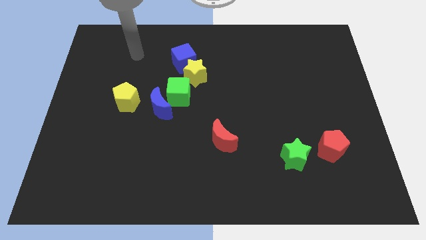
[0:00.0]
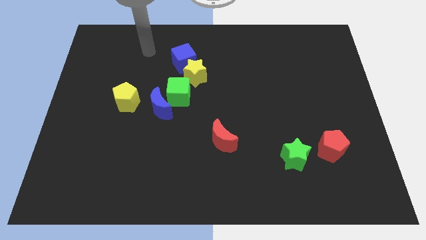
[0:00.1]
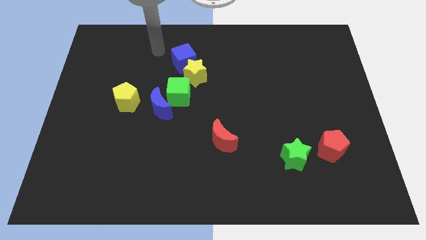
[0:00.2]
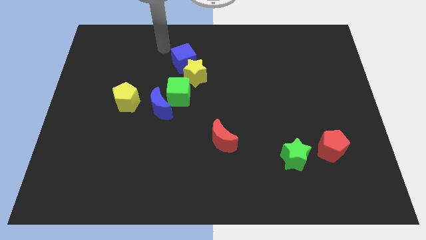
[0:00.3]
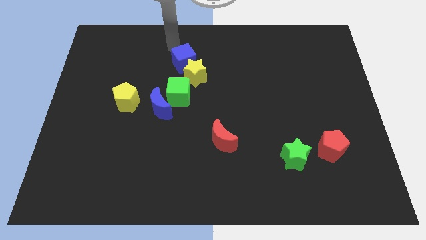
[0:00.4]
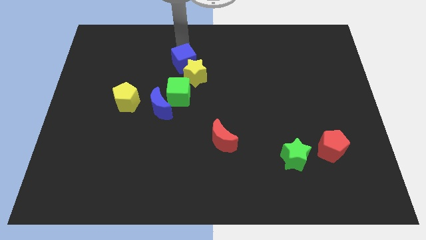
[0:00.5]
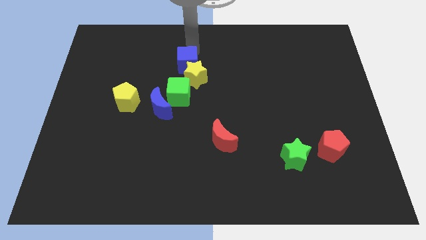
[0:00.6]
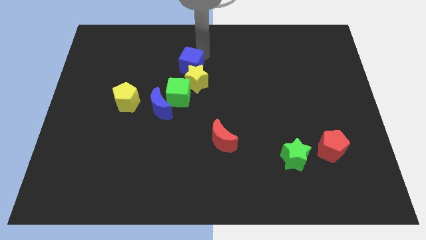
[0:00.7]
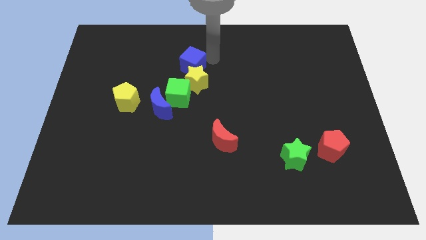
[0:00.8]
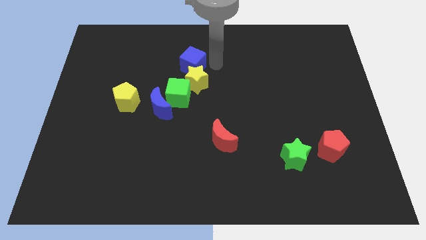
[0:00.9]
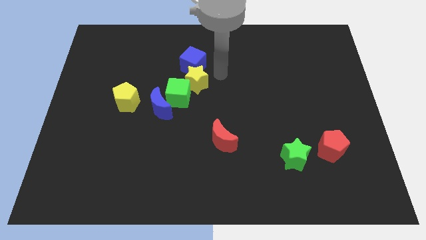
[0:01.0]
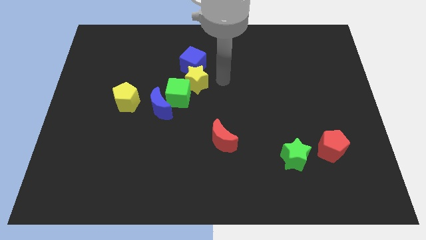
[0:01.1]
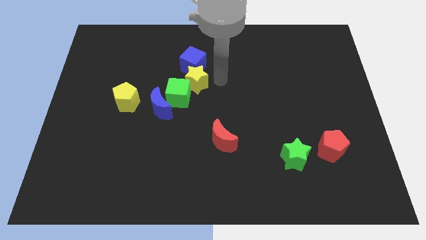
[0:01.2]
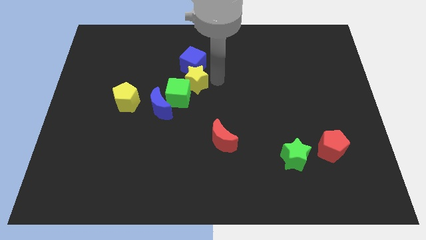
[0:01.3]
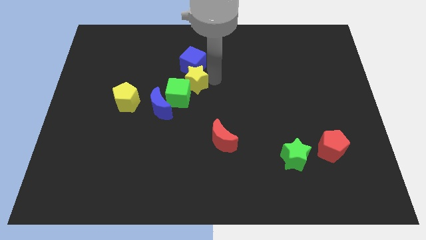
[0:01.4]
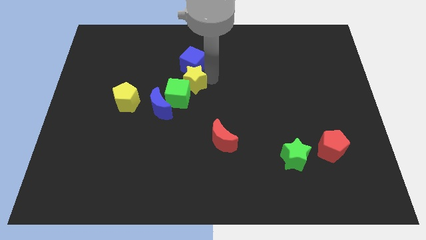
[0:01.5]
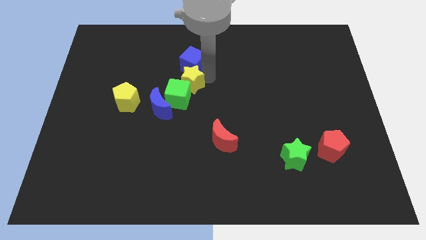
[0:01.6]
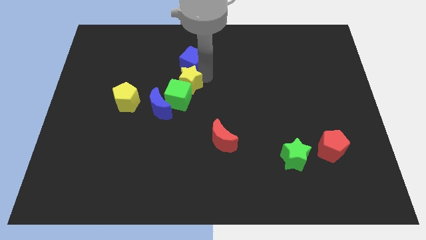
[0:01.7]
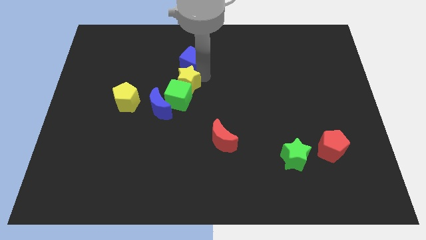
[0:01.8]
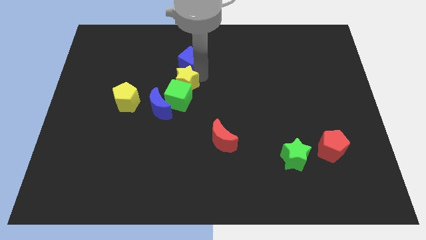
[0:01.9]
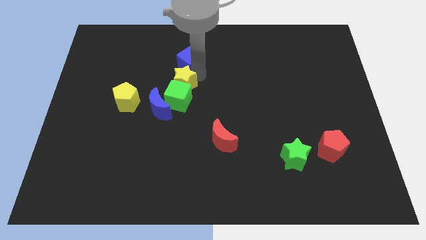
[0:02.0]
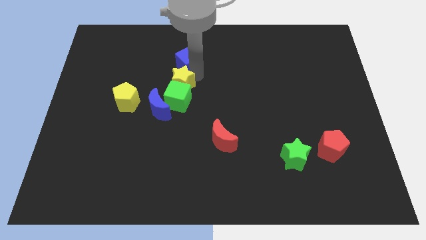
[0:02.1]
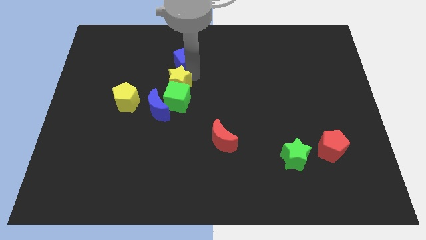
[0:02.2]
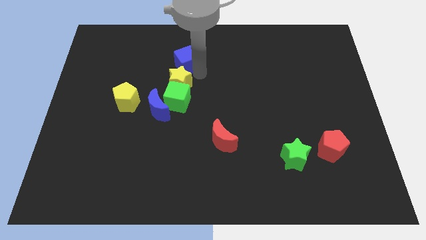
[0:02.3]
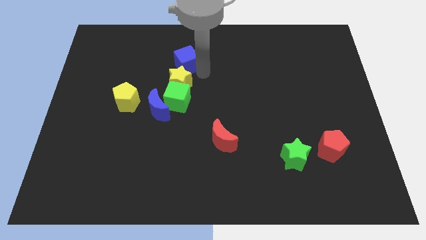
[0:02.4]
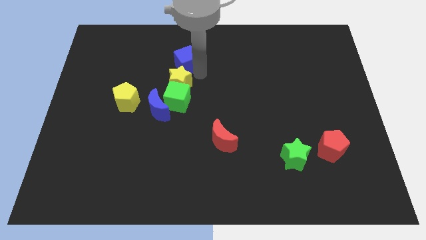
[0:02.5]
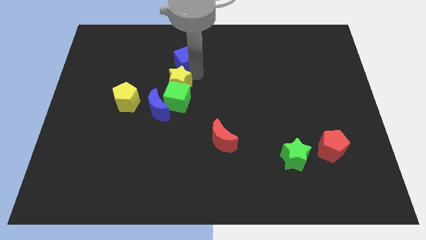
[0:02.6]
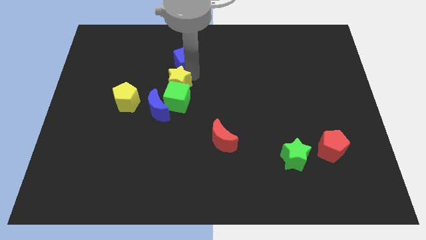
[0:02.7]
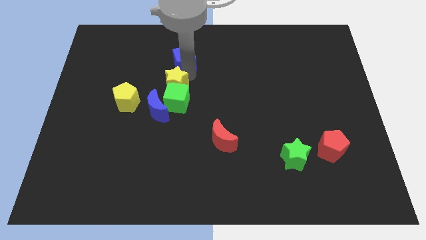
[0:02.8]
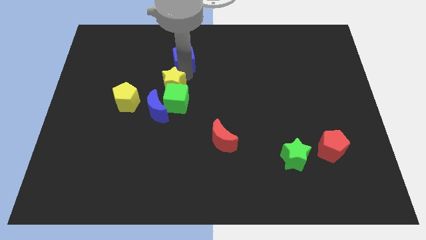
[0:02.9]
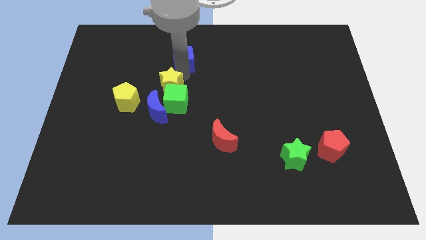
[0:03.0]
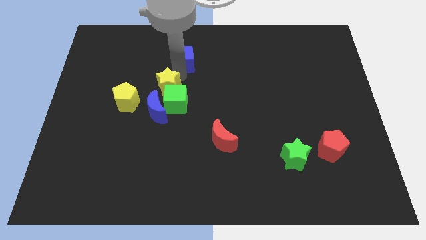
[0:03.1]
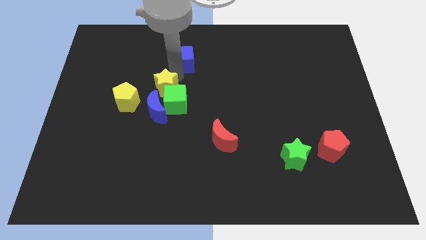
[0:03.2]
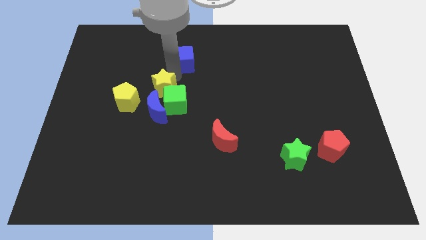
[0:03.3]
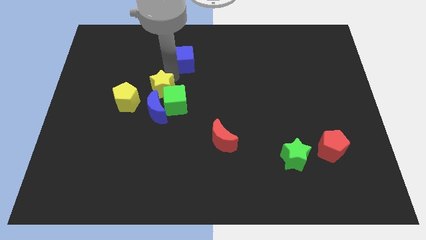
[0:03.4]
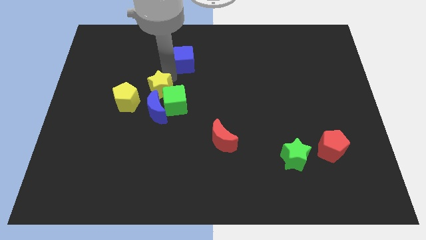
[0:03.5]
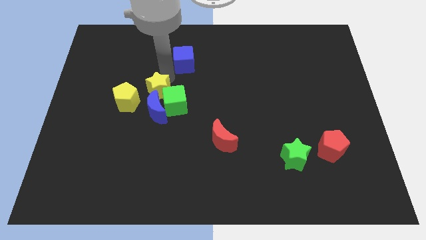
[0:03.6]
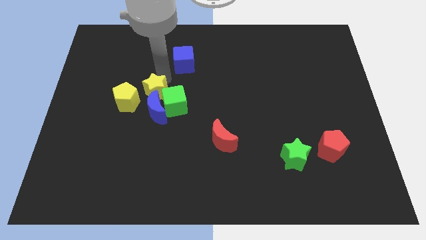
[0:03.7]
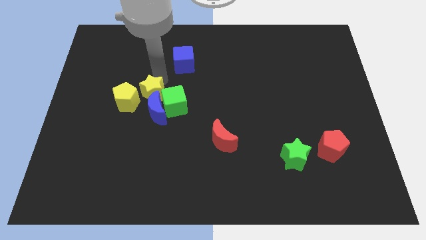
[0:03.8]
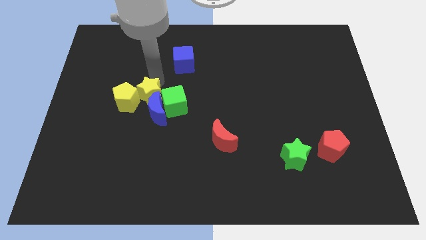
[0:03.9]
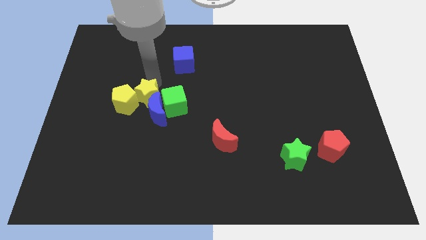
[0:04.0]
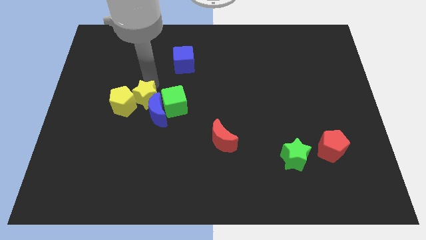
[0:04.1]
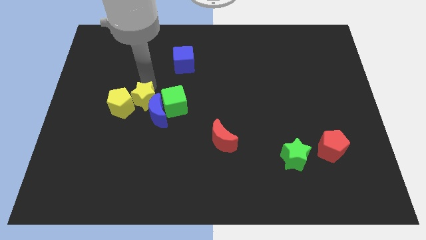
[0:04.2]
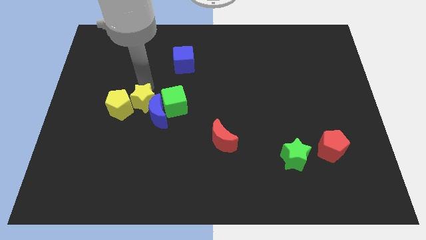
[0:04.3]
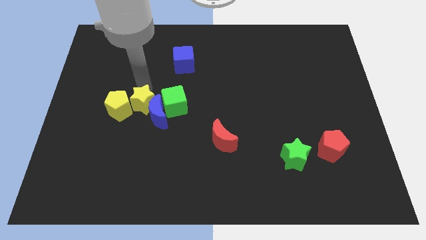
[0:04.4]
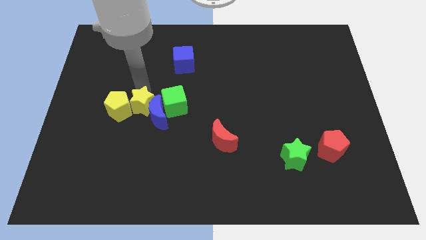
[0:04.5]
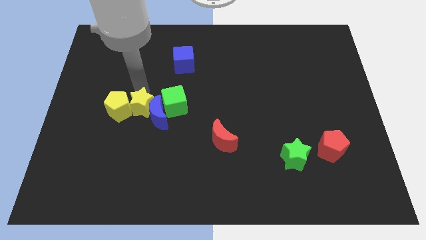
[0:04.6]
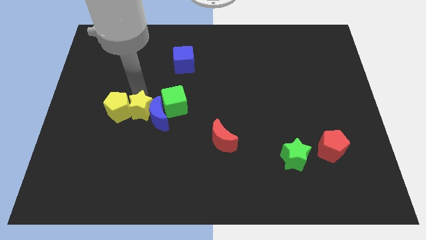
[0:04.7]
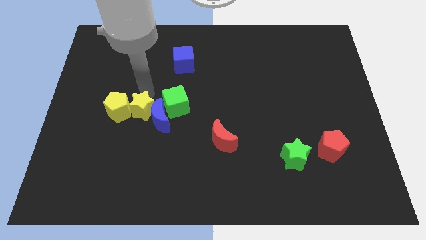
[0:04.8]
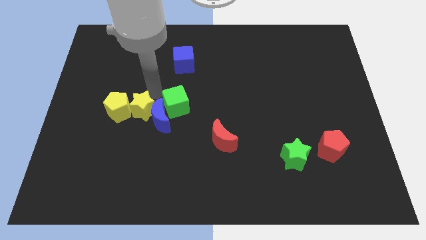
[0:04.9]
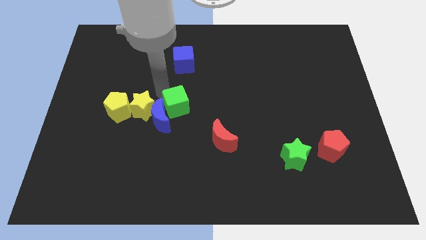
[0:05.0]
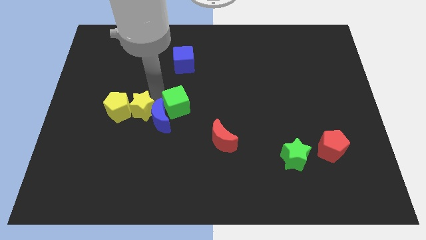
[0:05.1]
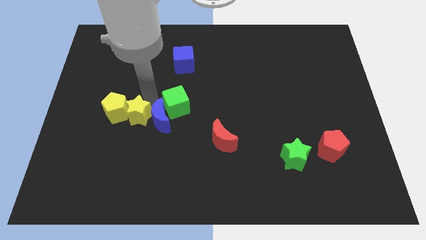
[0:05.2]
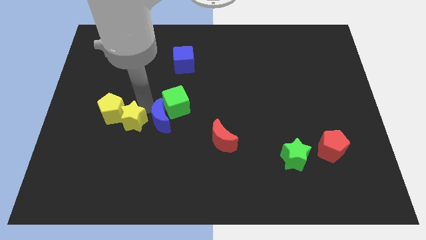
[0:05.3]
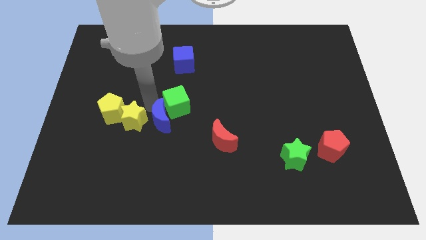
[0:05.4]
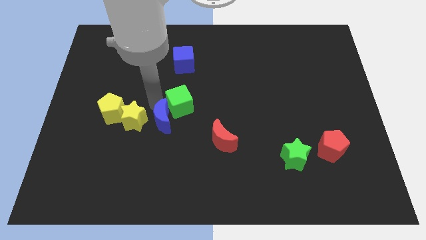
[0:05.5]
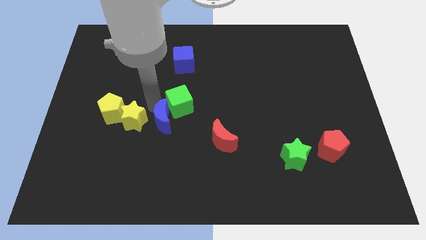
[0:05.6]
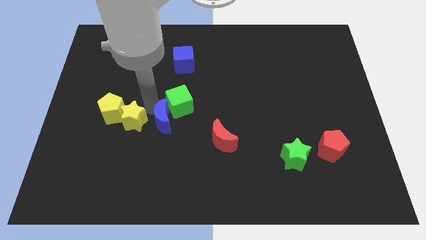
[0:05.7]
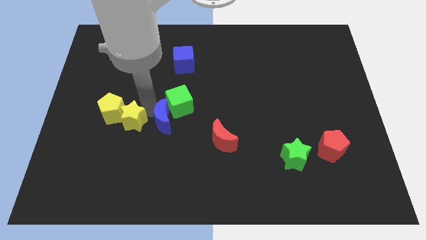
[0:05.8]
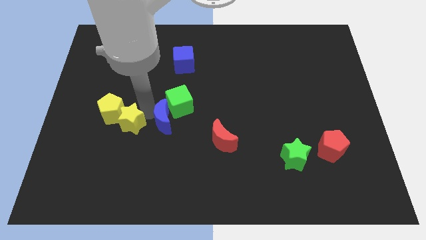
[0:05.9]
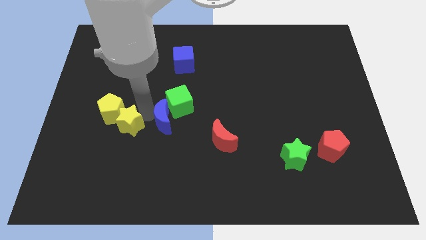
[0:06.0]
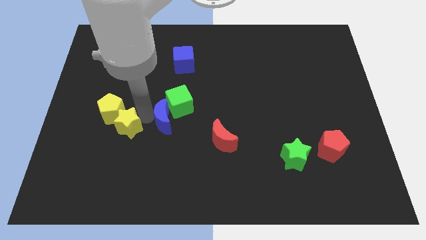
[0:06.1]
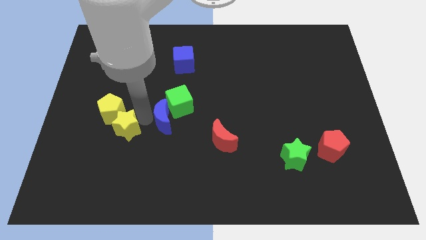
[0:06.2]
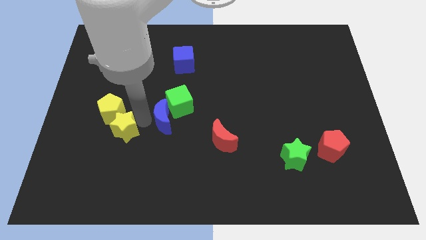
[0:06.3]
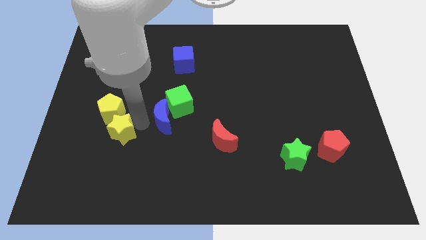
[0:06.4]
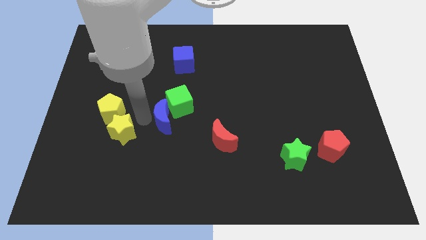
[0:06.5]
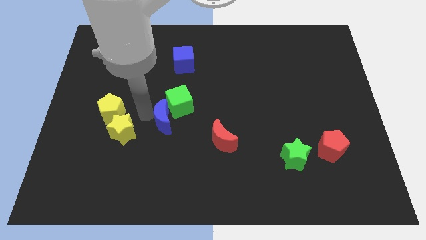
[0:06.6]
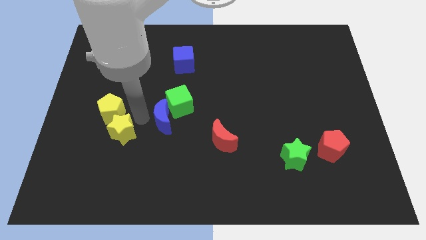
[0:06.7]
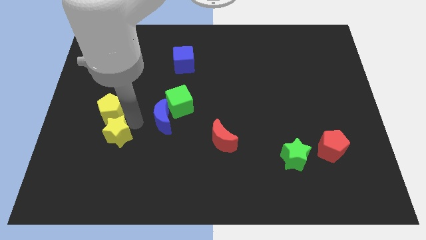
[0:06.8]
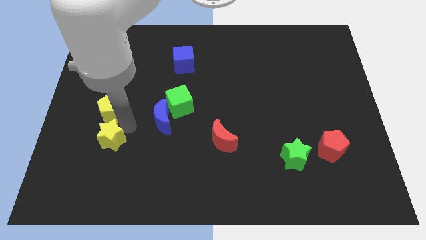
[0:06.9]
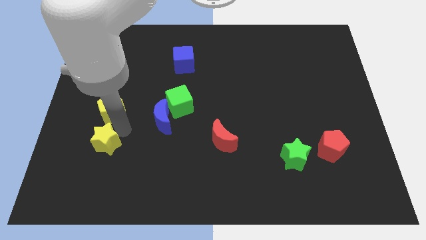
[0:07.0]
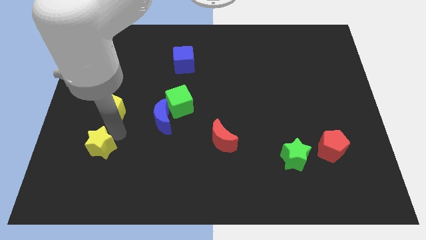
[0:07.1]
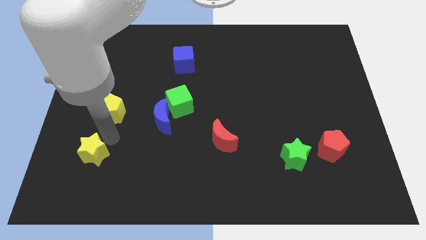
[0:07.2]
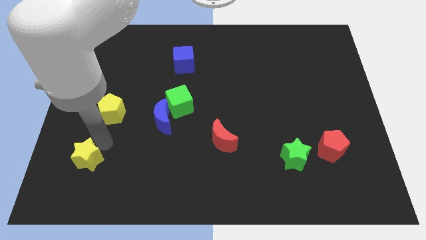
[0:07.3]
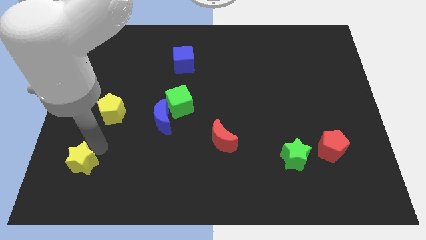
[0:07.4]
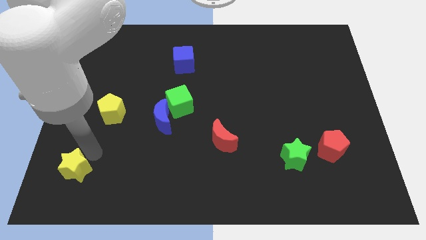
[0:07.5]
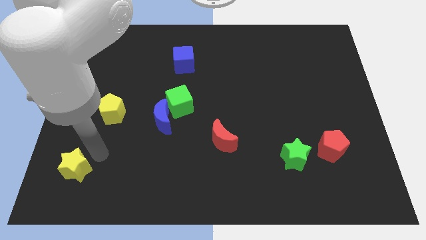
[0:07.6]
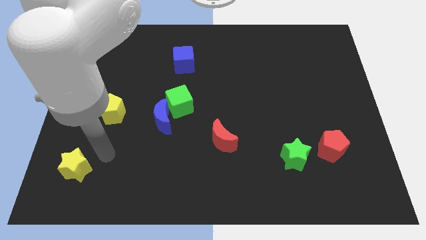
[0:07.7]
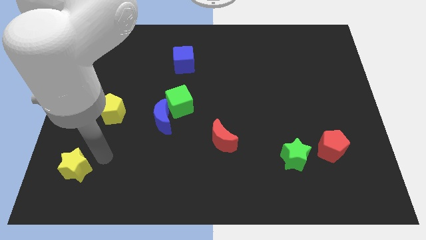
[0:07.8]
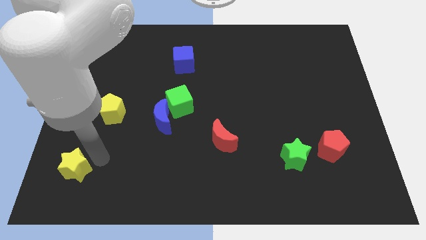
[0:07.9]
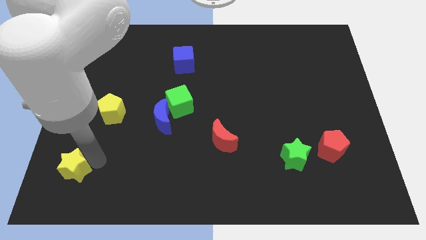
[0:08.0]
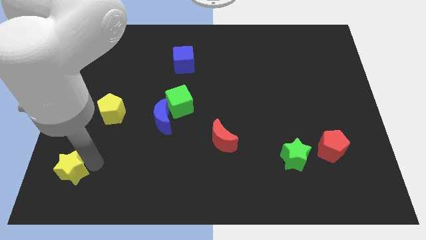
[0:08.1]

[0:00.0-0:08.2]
put the yellow star to the bottom left
